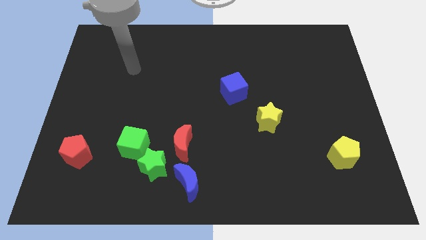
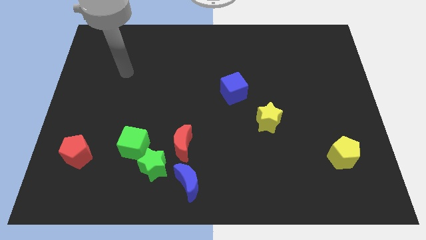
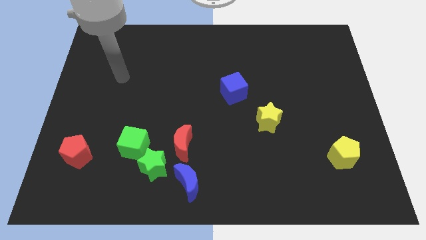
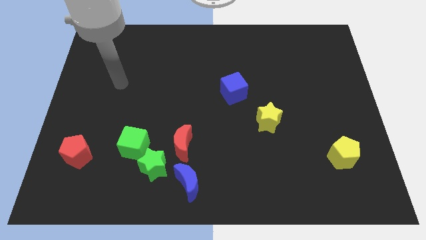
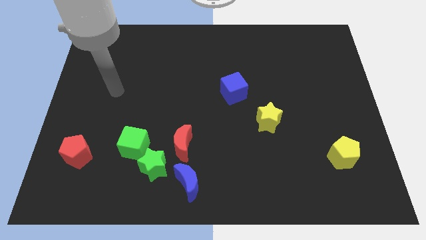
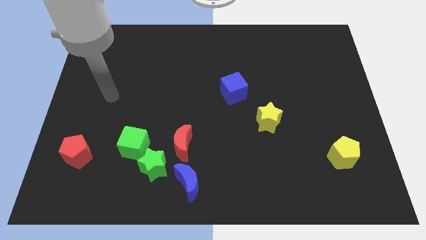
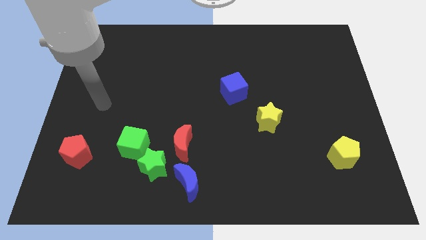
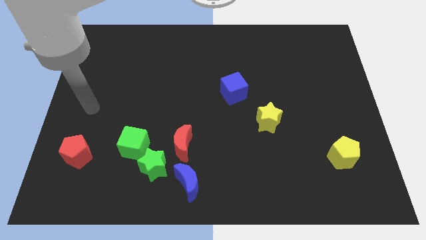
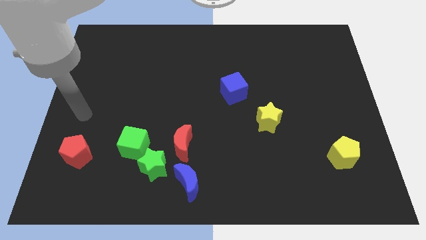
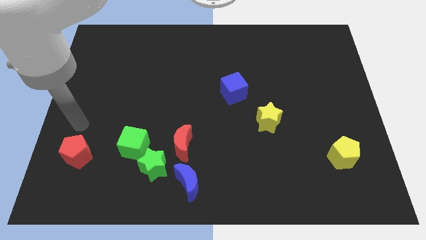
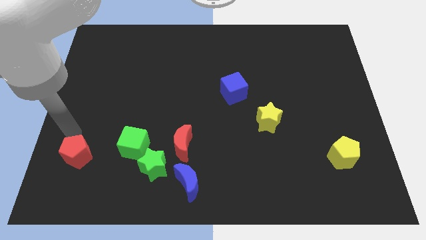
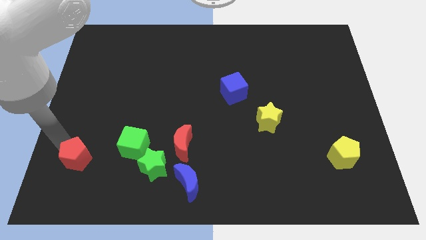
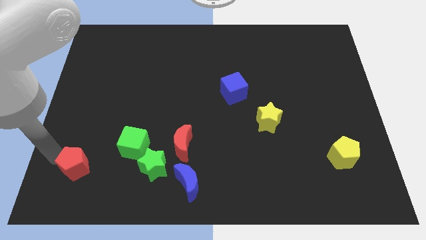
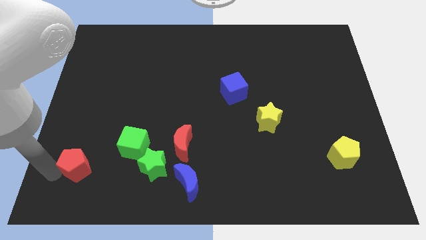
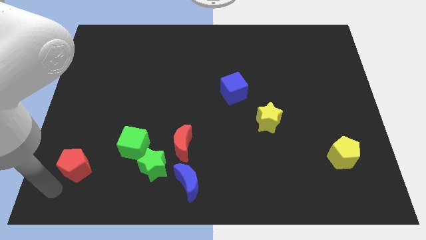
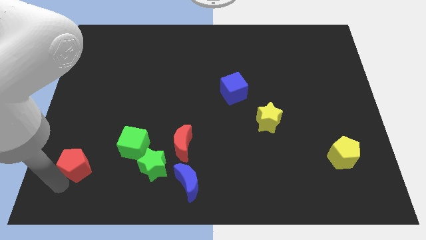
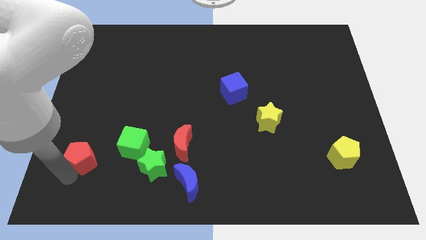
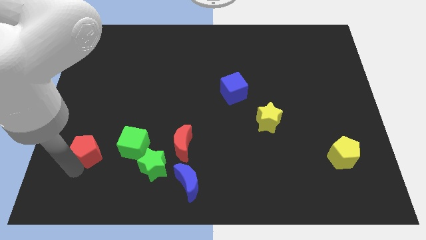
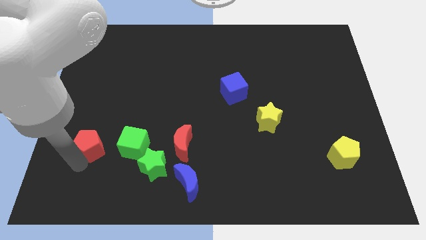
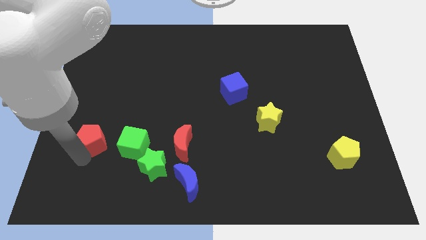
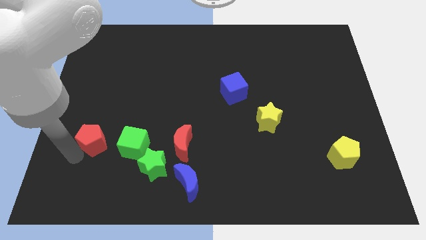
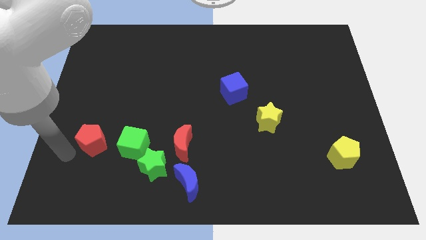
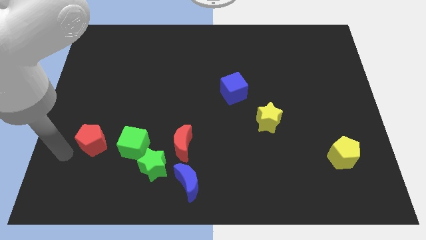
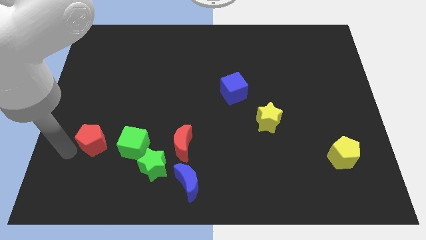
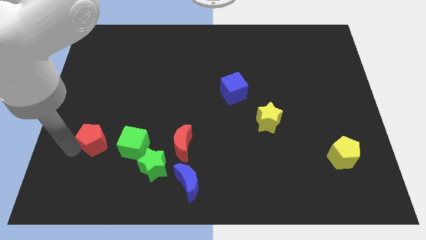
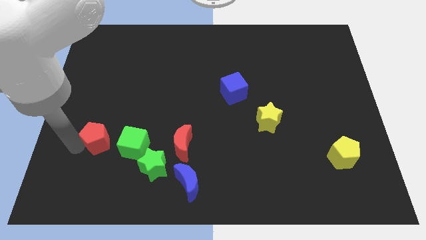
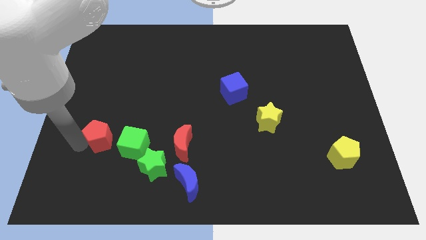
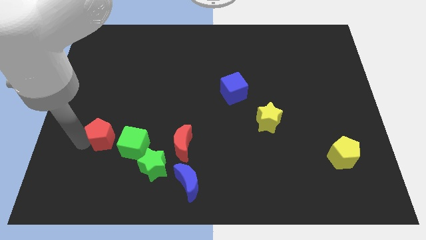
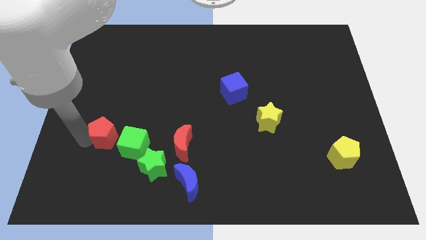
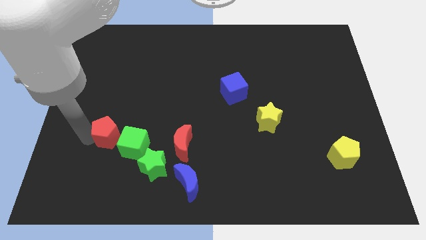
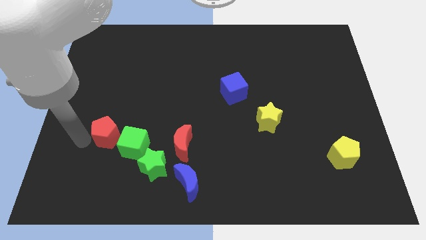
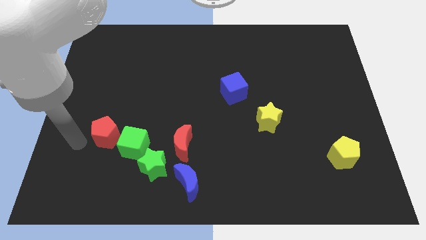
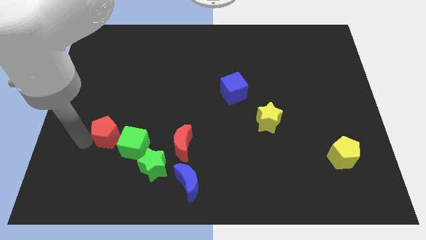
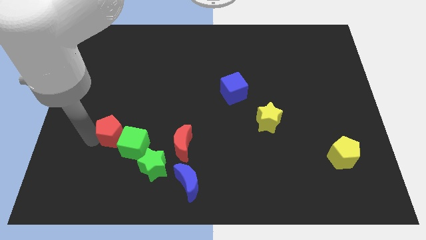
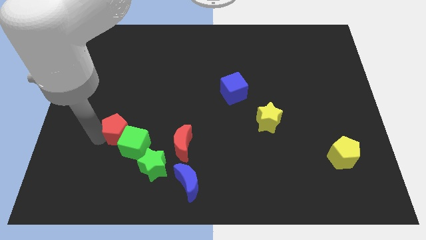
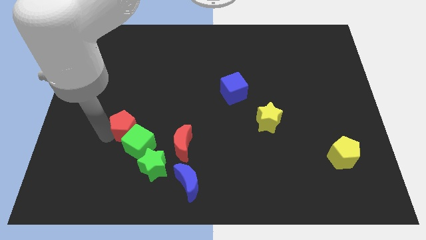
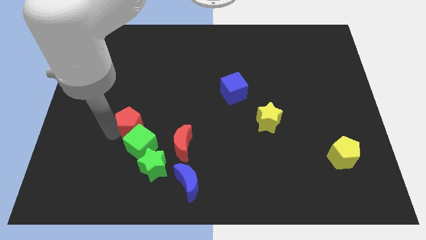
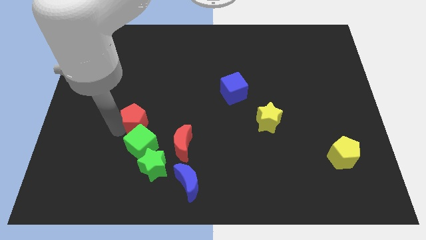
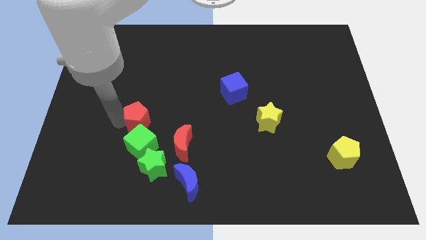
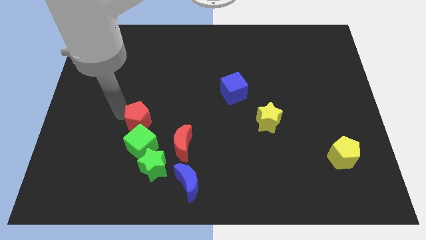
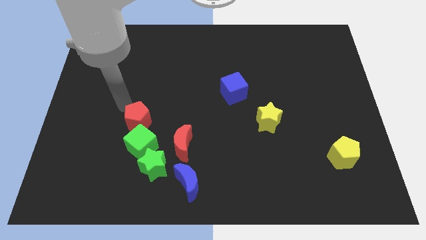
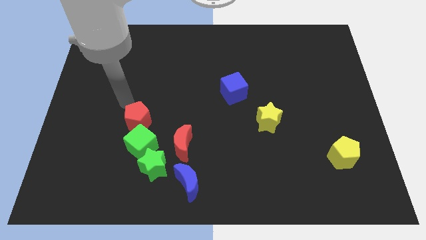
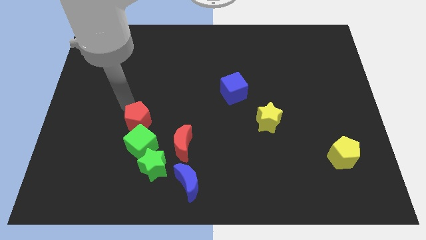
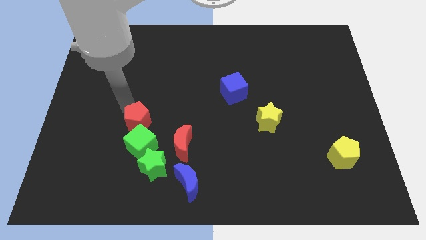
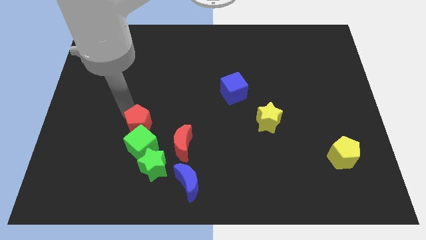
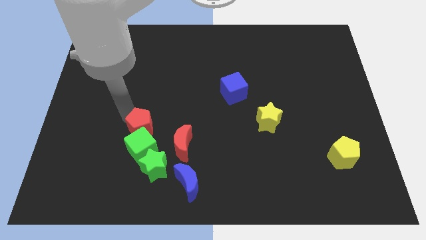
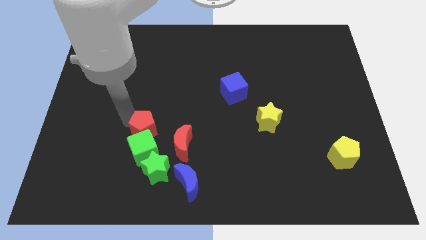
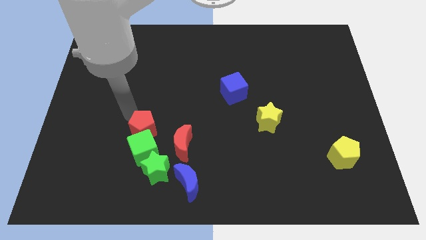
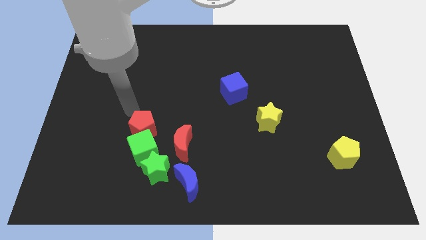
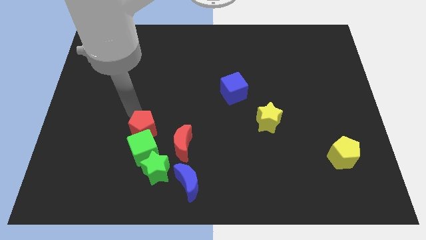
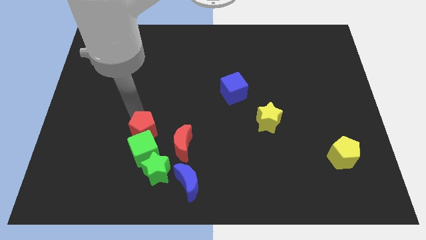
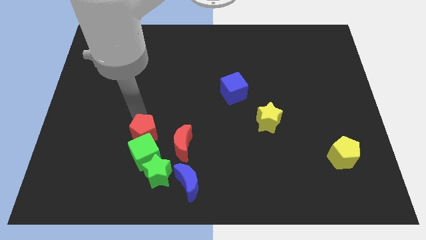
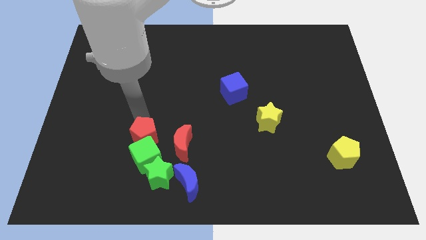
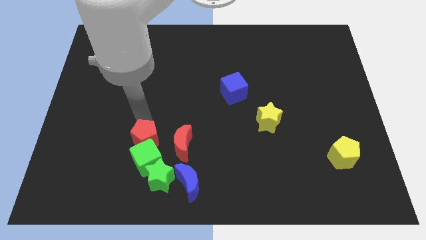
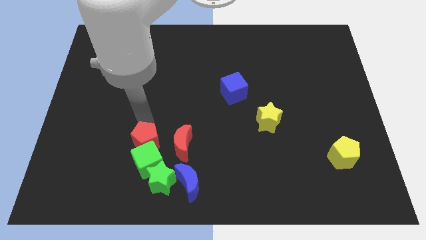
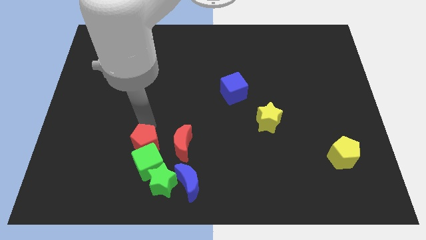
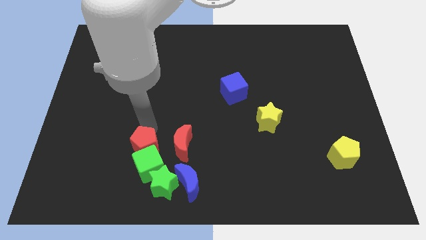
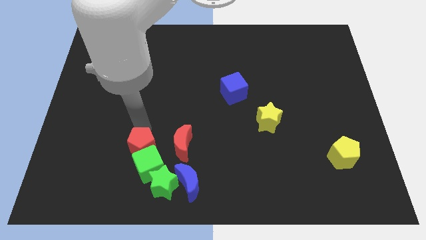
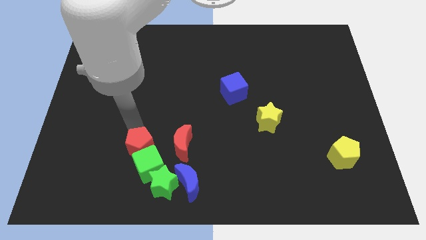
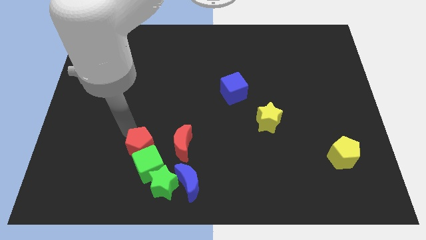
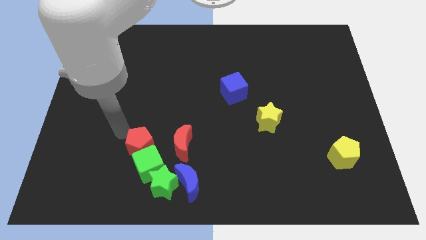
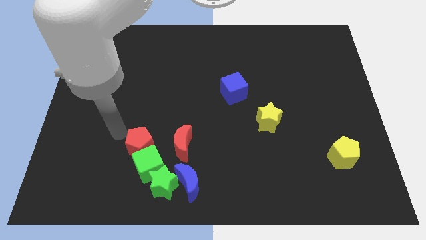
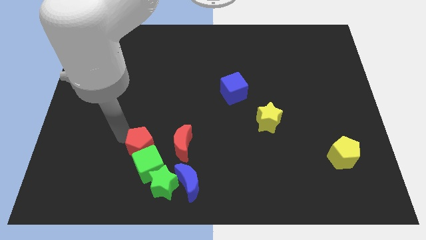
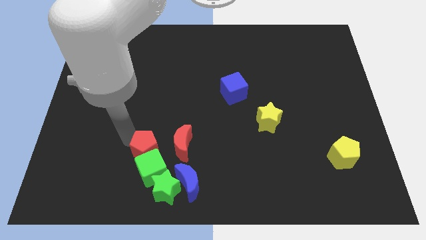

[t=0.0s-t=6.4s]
slide the red pentagon to the top left of the blue moon

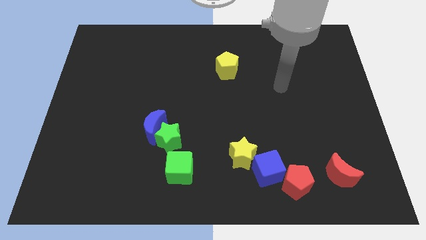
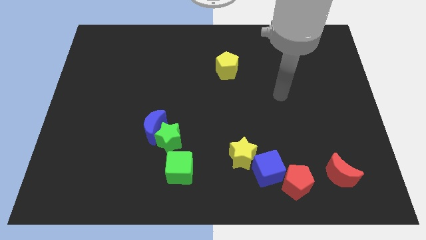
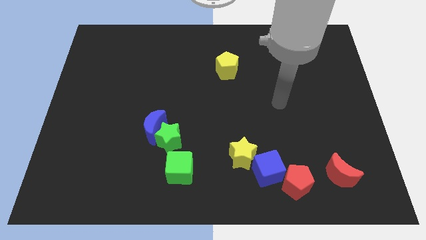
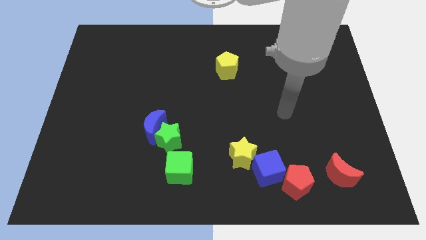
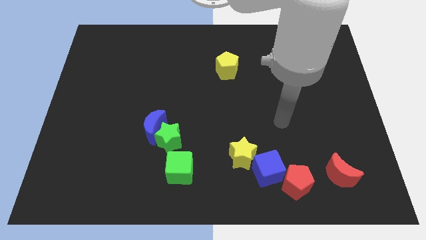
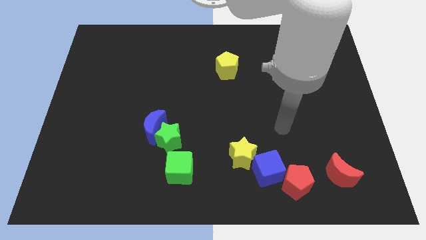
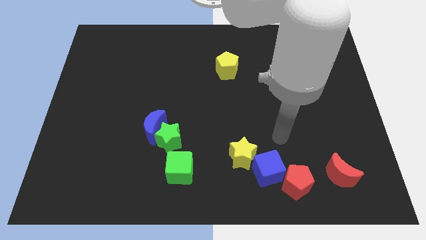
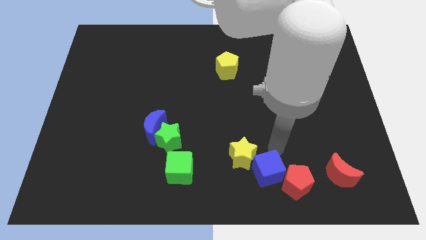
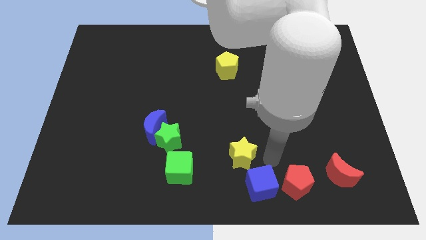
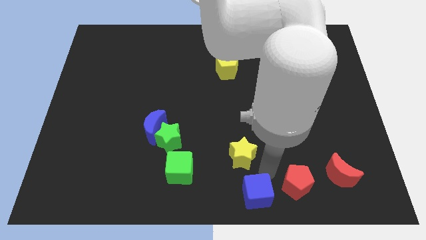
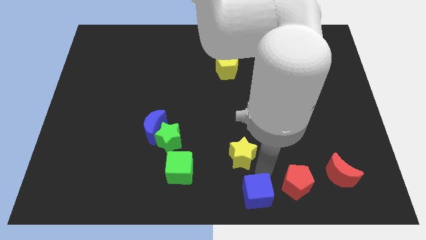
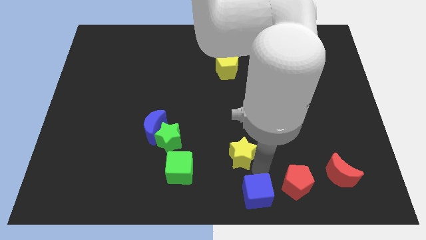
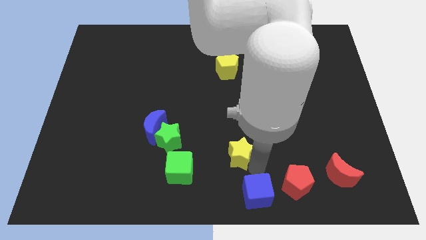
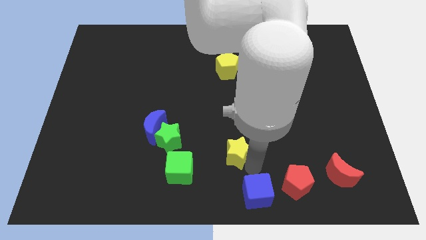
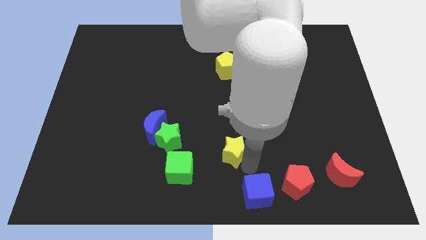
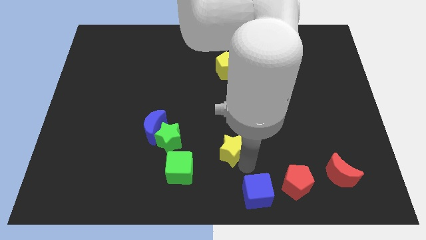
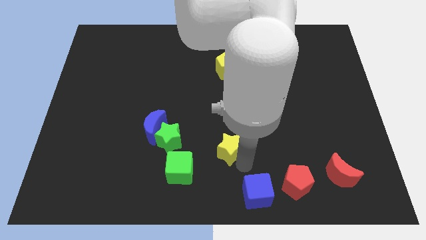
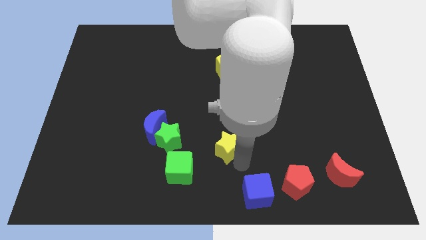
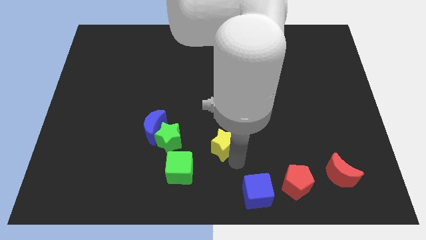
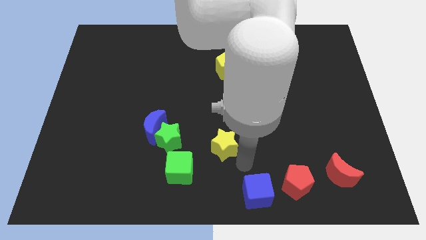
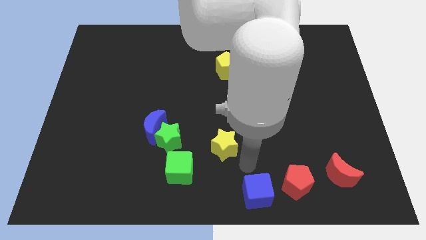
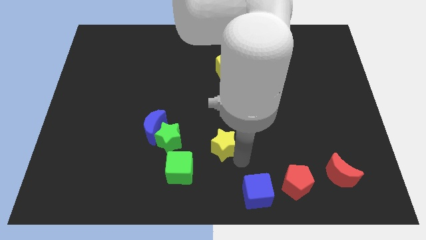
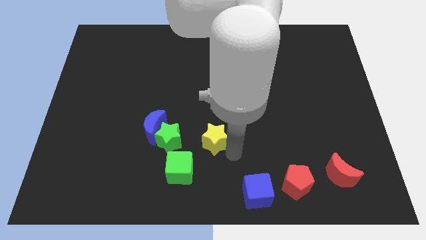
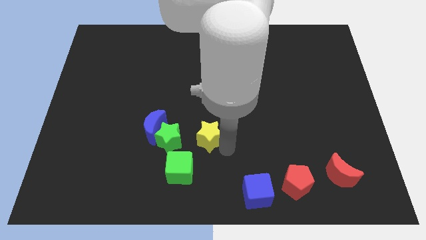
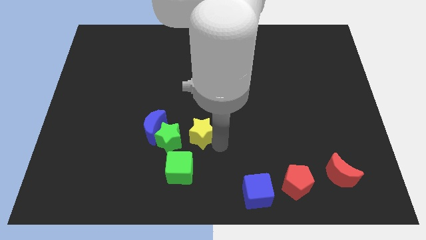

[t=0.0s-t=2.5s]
put the yellow star diagonally up and to the right of the green star
